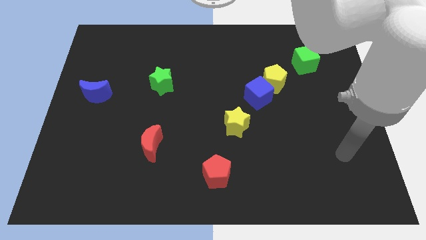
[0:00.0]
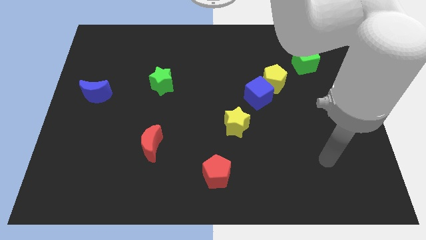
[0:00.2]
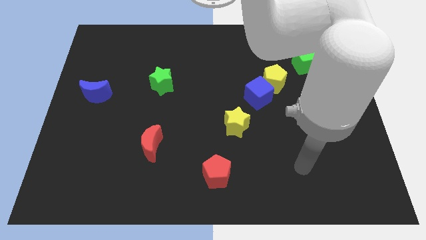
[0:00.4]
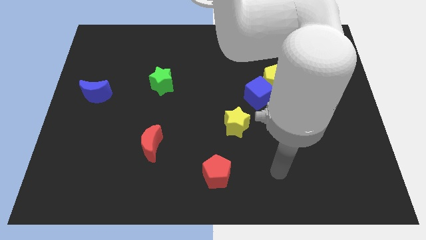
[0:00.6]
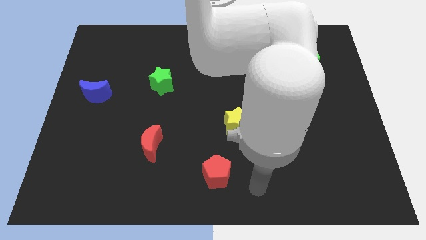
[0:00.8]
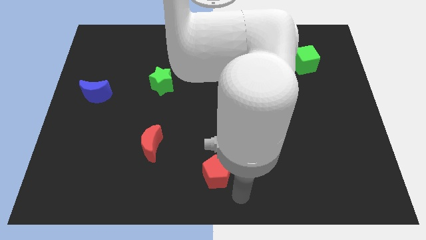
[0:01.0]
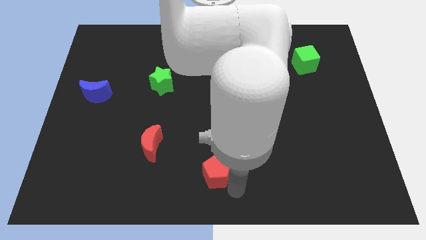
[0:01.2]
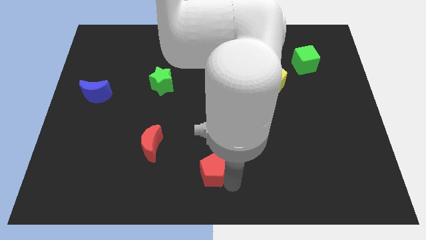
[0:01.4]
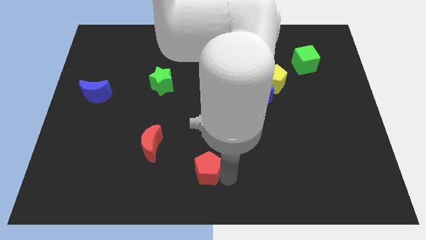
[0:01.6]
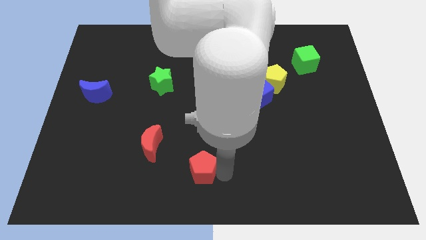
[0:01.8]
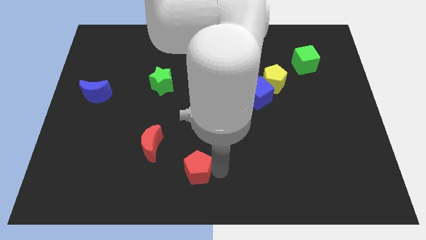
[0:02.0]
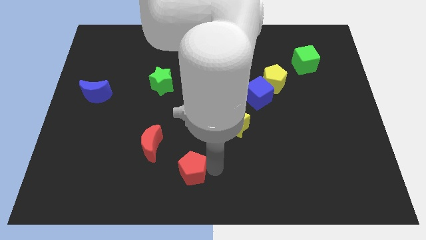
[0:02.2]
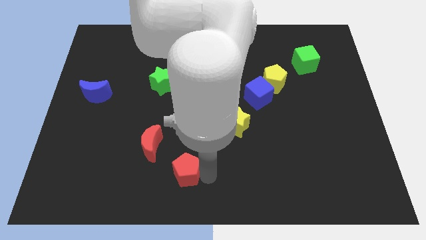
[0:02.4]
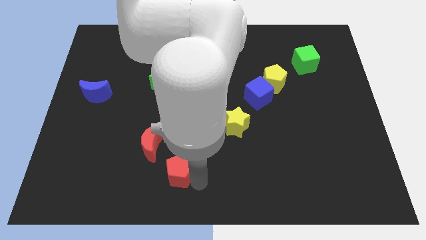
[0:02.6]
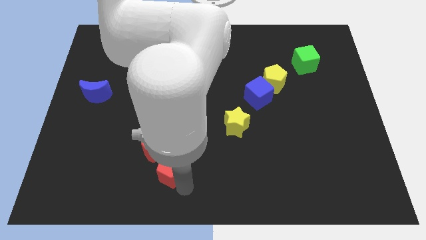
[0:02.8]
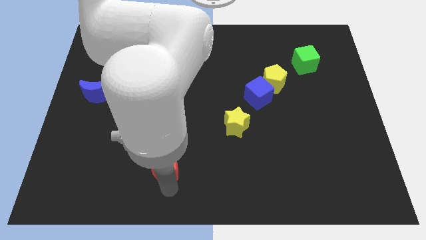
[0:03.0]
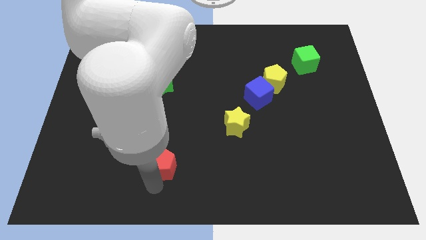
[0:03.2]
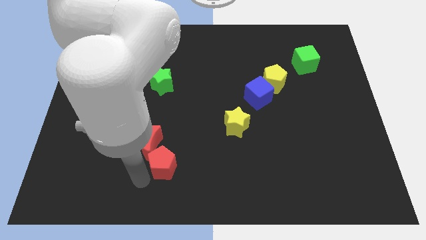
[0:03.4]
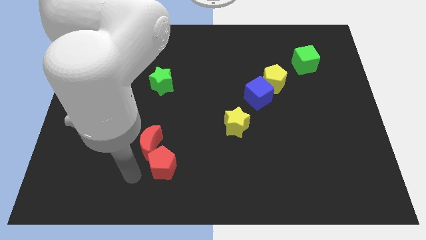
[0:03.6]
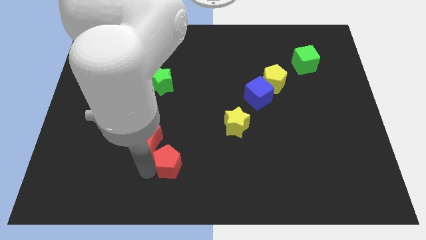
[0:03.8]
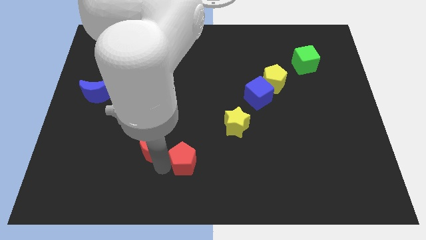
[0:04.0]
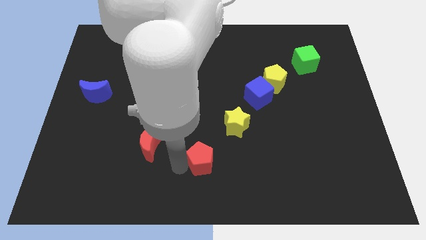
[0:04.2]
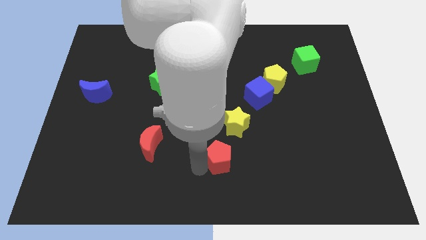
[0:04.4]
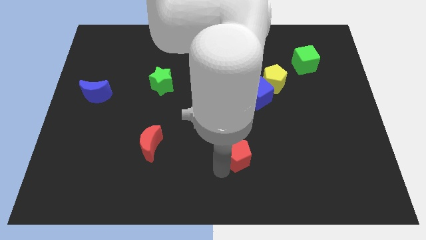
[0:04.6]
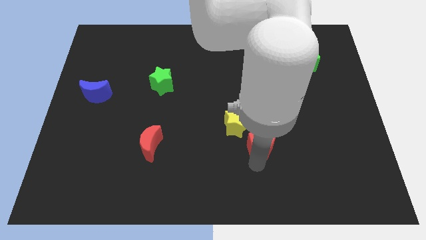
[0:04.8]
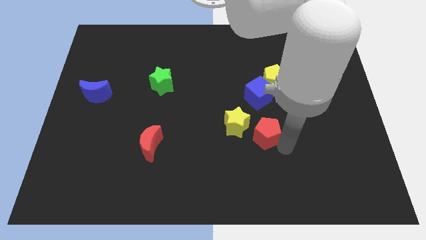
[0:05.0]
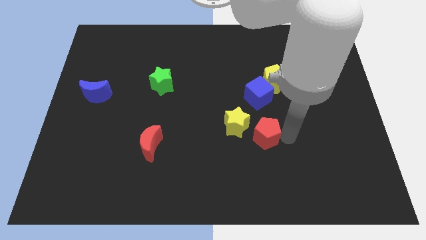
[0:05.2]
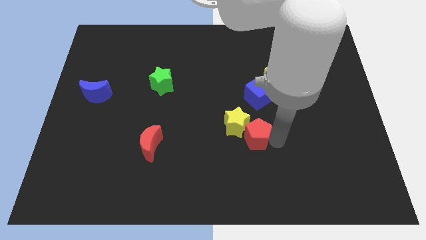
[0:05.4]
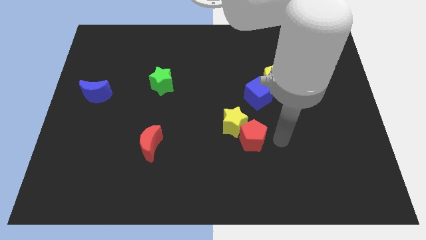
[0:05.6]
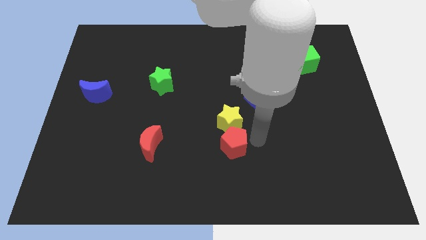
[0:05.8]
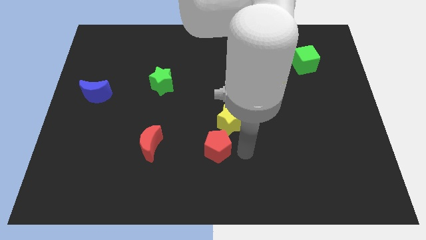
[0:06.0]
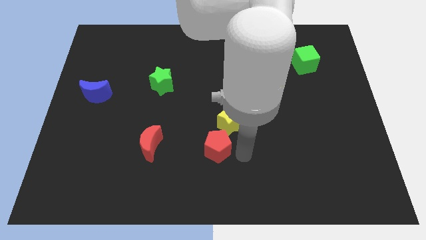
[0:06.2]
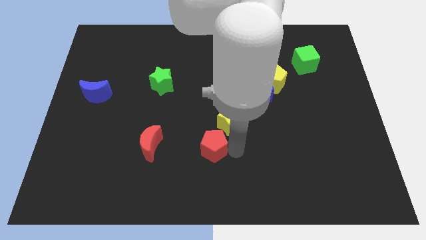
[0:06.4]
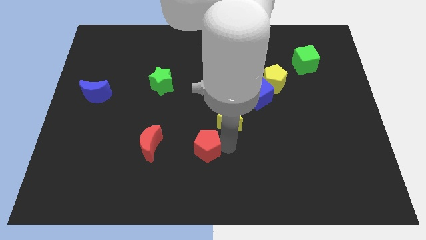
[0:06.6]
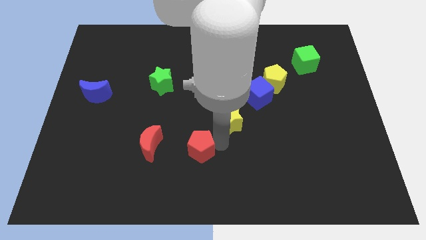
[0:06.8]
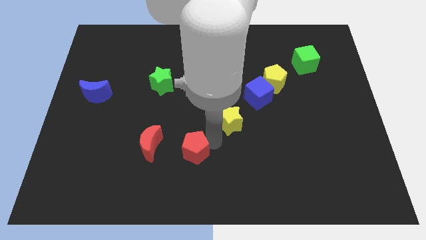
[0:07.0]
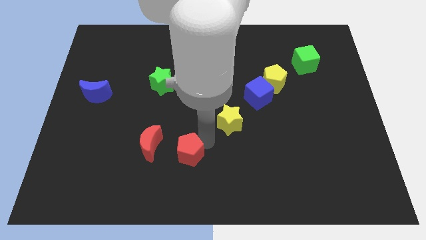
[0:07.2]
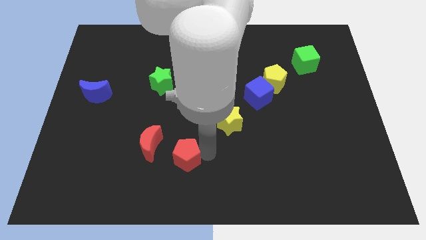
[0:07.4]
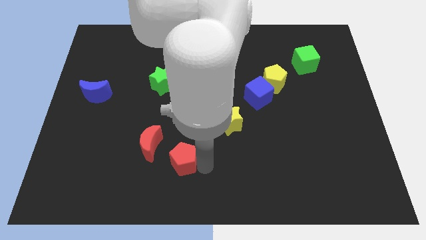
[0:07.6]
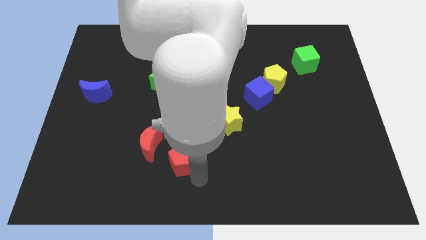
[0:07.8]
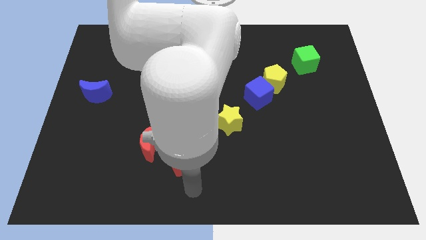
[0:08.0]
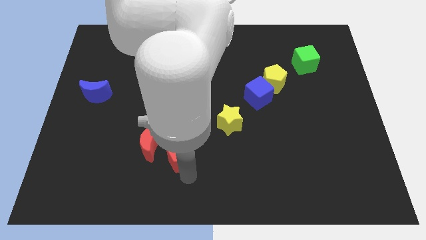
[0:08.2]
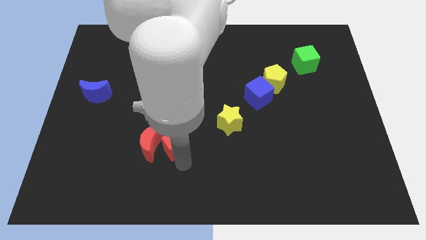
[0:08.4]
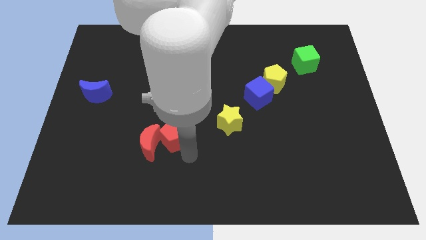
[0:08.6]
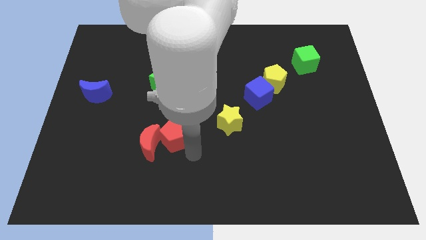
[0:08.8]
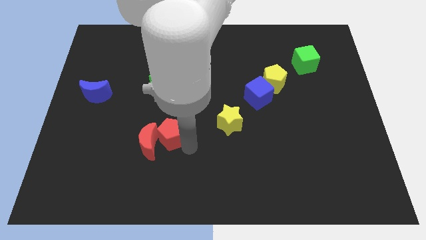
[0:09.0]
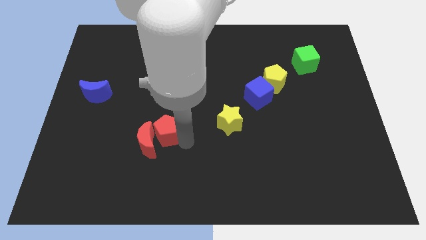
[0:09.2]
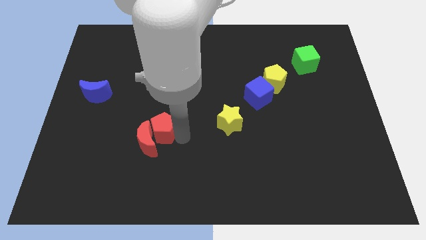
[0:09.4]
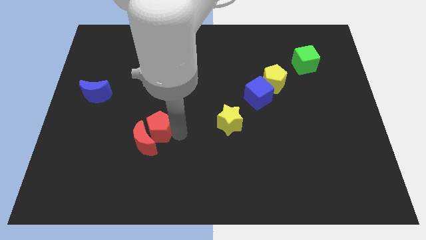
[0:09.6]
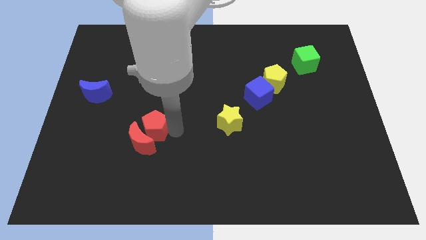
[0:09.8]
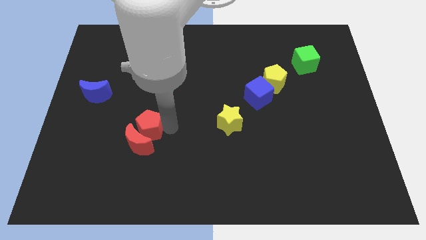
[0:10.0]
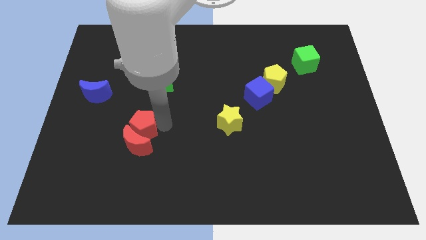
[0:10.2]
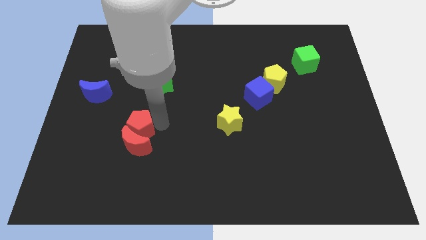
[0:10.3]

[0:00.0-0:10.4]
slide the red pentagon up and left

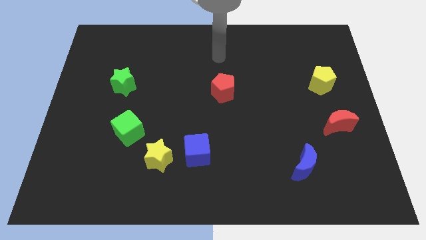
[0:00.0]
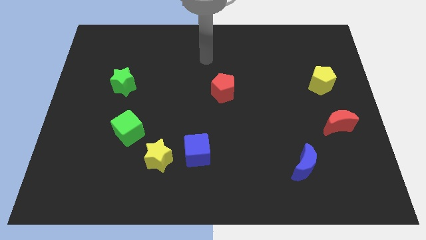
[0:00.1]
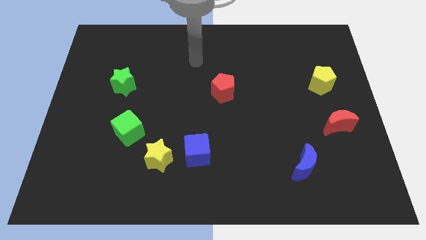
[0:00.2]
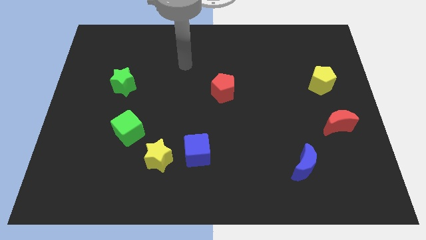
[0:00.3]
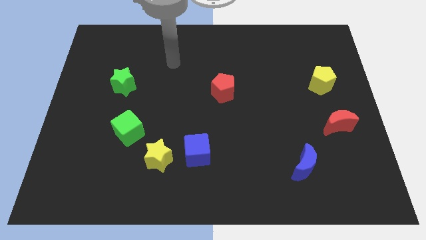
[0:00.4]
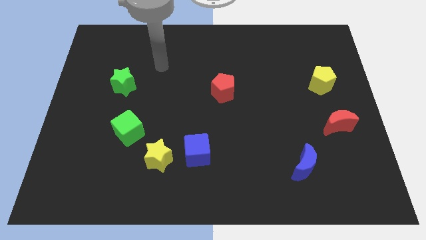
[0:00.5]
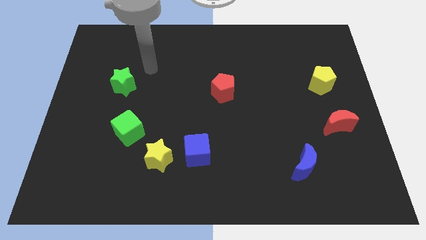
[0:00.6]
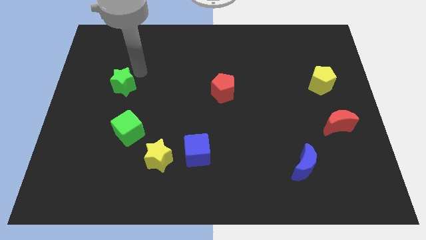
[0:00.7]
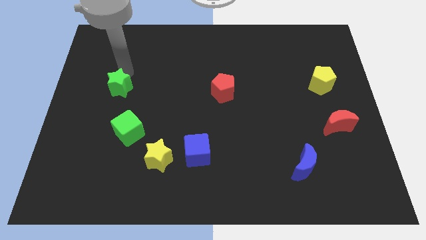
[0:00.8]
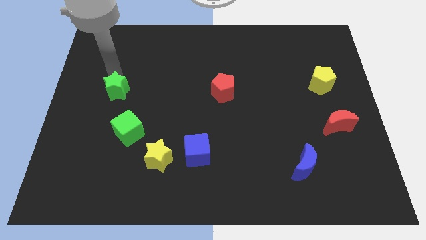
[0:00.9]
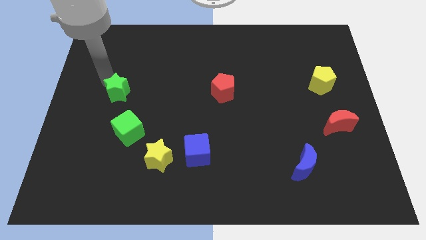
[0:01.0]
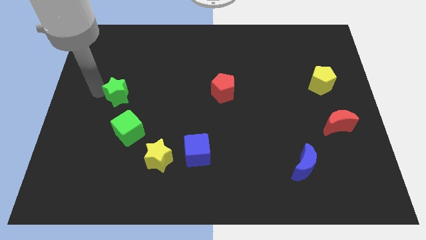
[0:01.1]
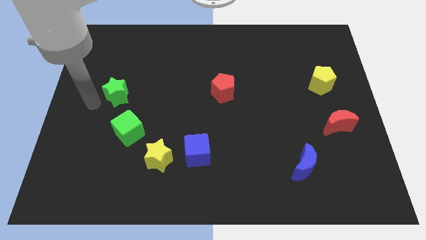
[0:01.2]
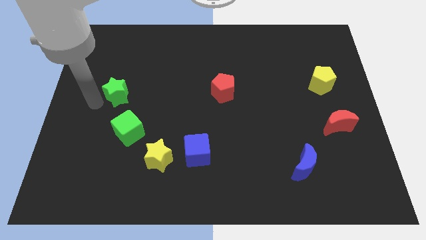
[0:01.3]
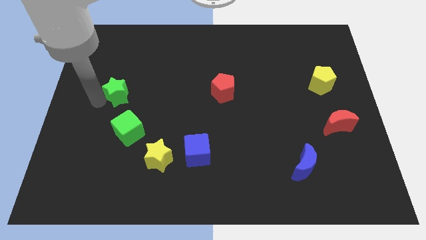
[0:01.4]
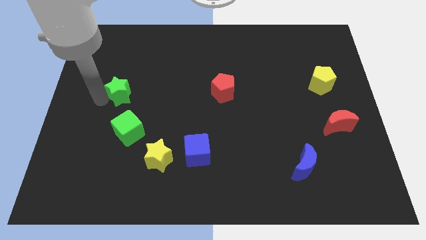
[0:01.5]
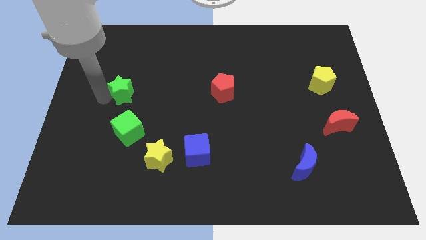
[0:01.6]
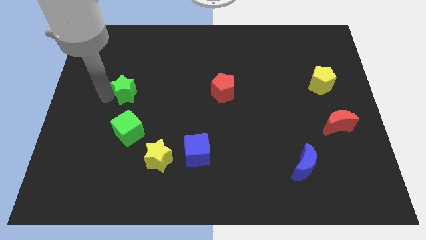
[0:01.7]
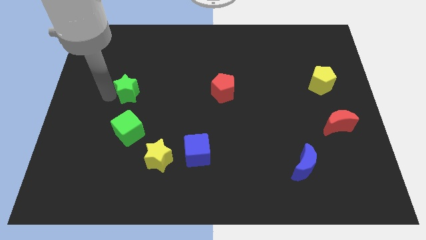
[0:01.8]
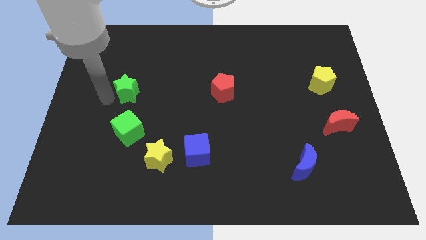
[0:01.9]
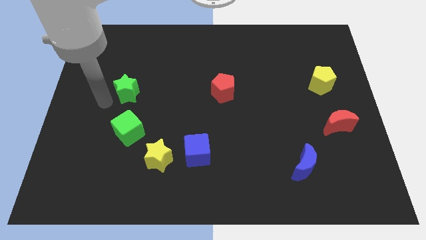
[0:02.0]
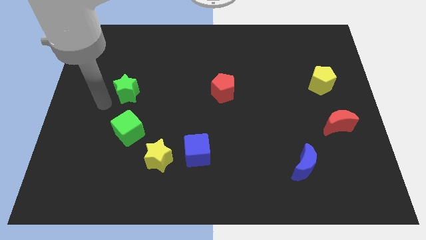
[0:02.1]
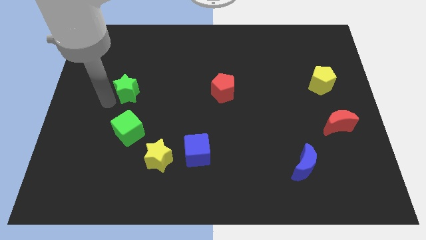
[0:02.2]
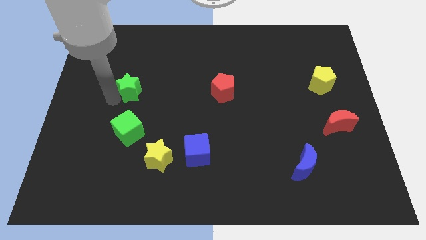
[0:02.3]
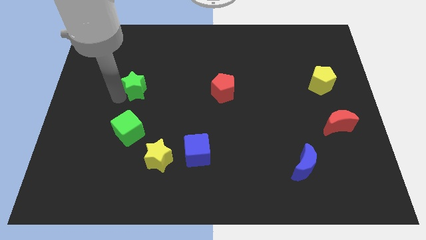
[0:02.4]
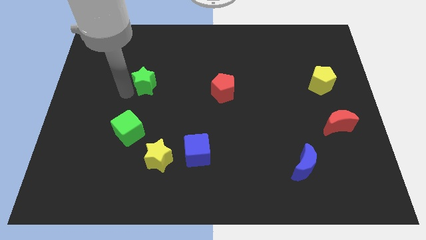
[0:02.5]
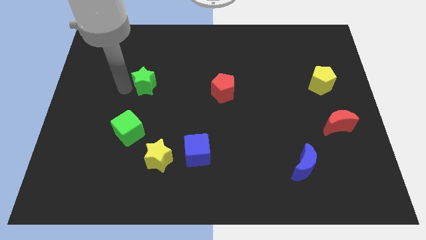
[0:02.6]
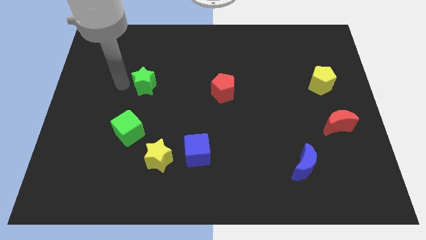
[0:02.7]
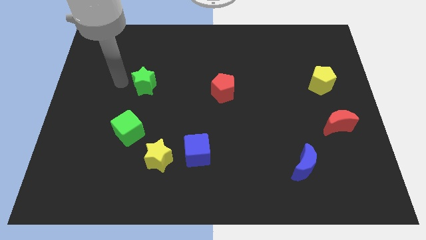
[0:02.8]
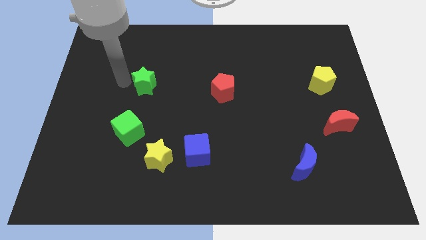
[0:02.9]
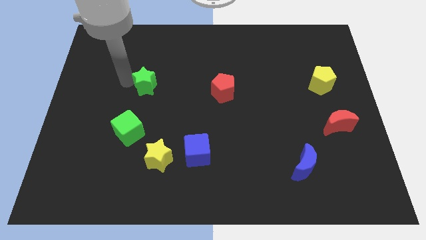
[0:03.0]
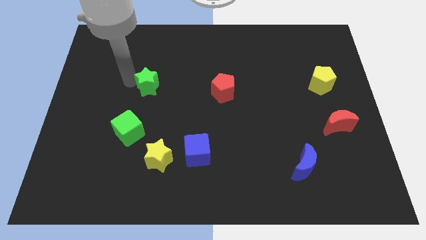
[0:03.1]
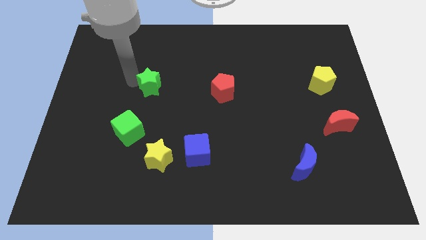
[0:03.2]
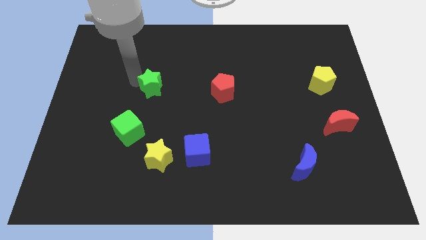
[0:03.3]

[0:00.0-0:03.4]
slightly slide the green star to the right
